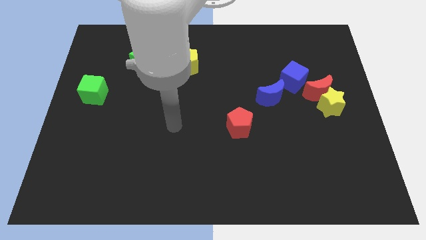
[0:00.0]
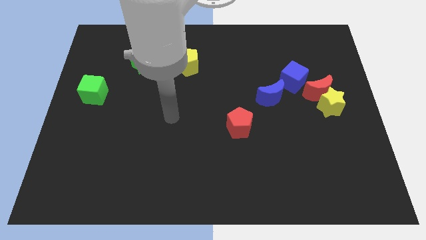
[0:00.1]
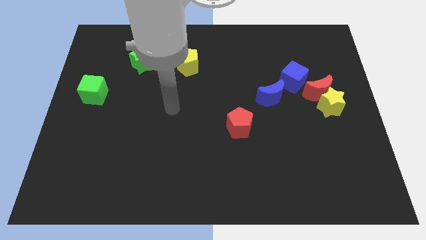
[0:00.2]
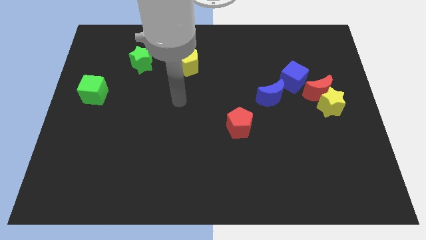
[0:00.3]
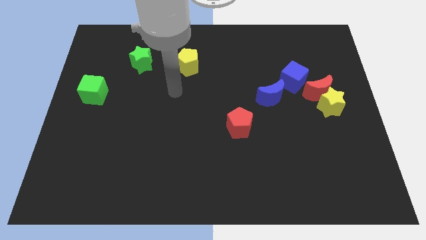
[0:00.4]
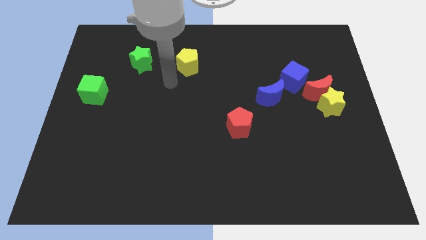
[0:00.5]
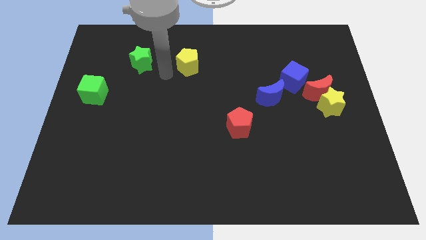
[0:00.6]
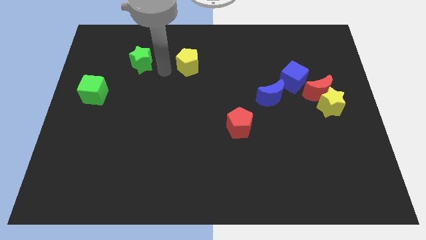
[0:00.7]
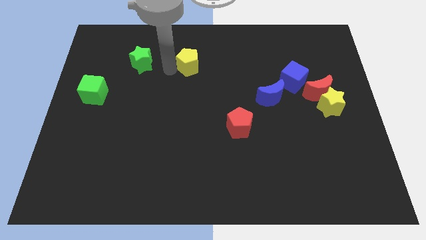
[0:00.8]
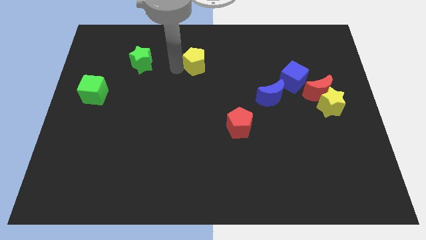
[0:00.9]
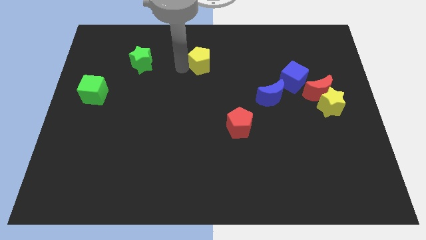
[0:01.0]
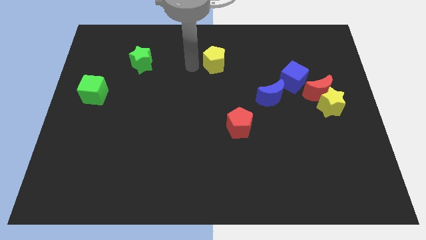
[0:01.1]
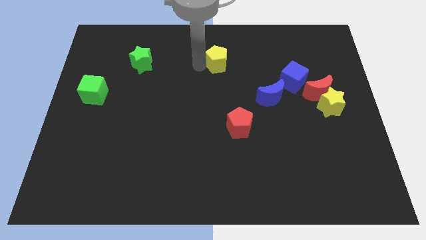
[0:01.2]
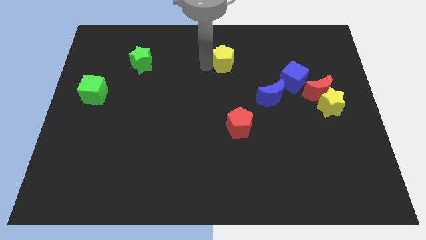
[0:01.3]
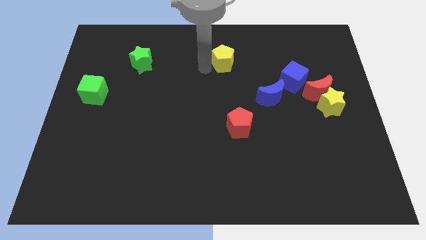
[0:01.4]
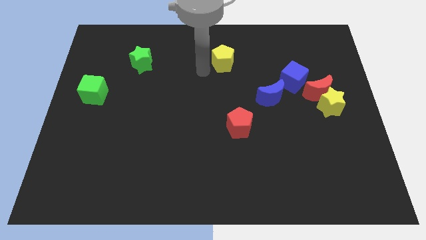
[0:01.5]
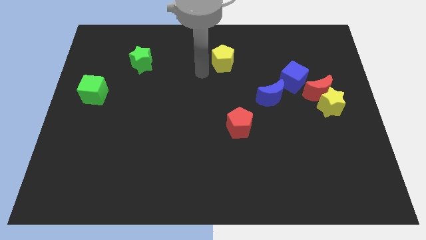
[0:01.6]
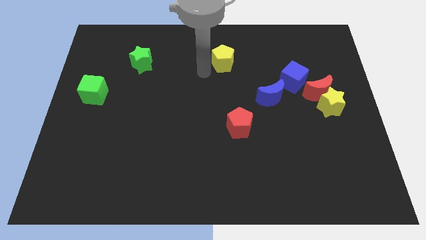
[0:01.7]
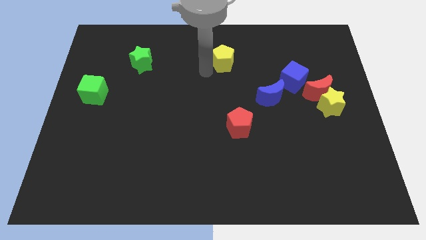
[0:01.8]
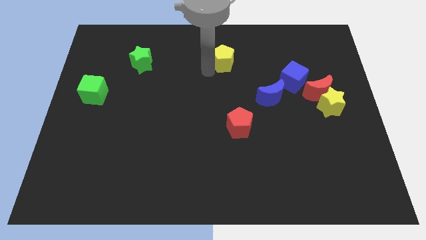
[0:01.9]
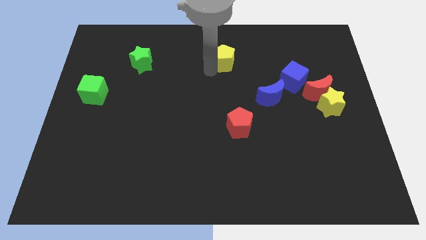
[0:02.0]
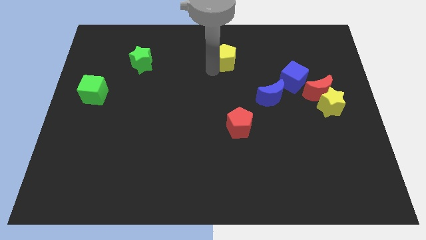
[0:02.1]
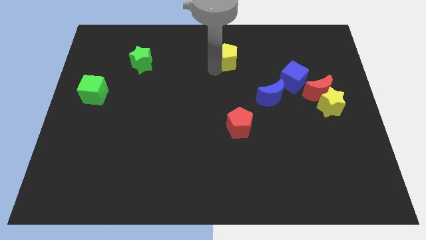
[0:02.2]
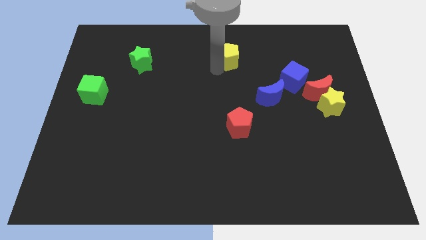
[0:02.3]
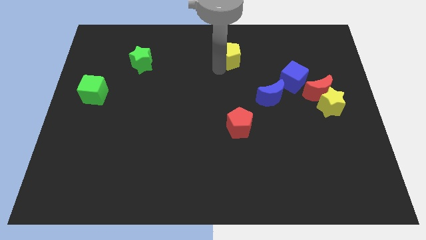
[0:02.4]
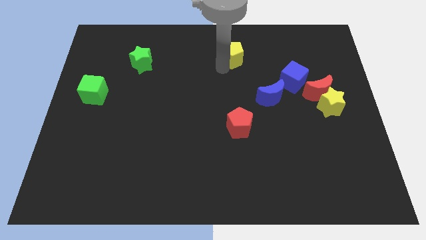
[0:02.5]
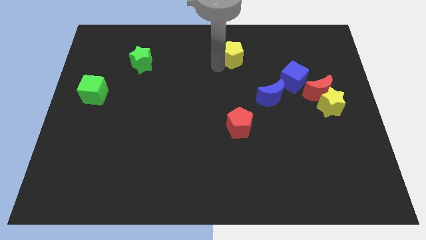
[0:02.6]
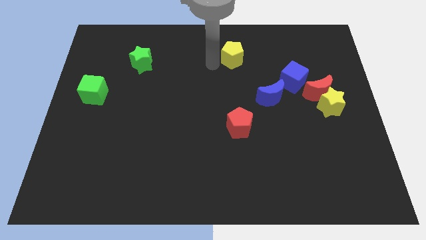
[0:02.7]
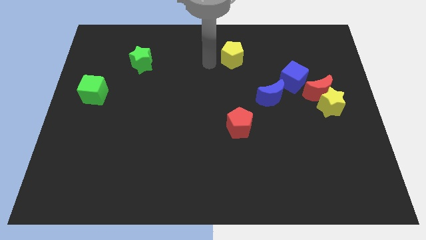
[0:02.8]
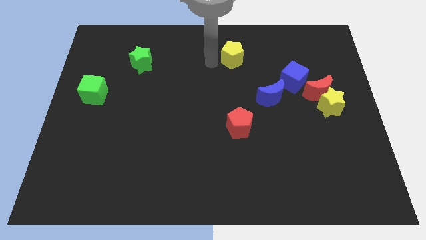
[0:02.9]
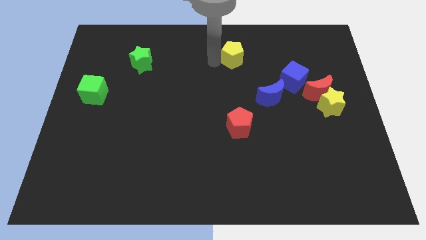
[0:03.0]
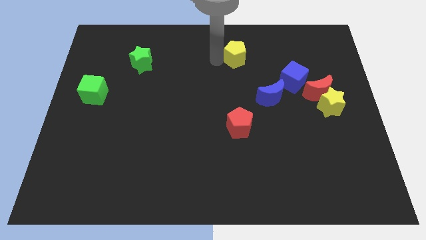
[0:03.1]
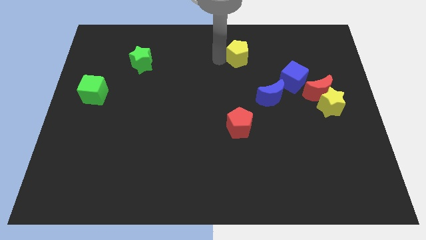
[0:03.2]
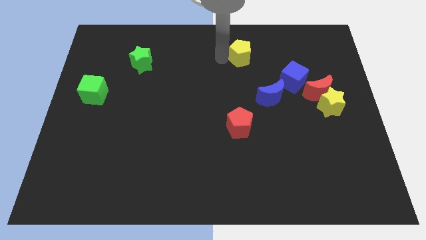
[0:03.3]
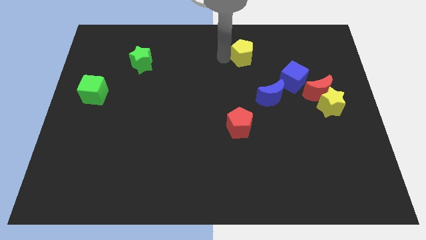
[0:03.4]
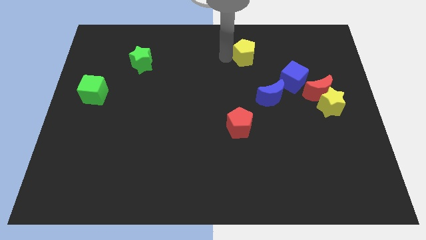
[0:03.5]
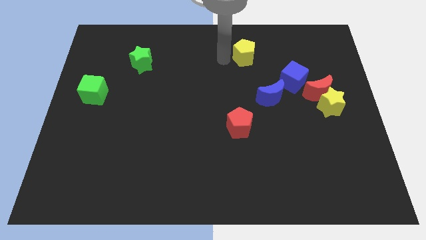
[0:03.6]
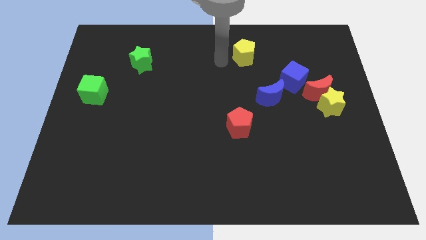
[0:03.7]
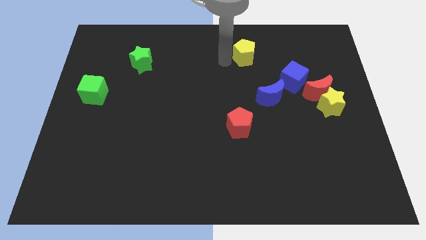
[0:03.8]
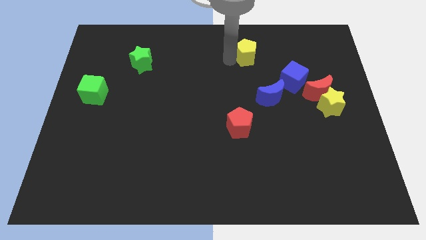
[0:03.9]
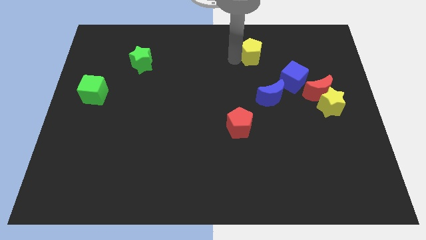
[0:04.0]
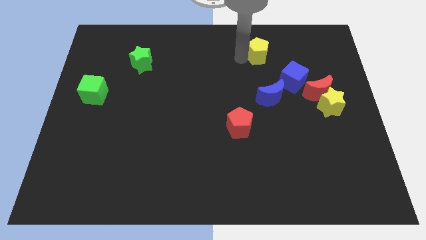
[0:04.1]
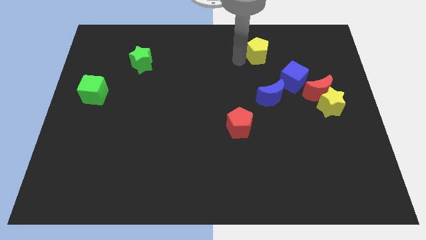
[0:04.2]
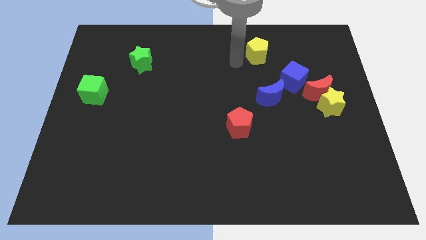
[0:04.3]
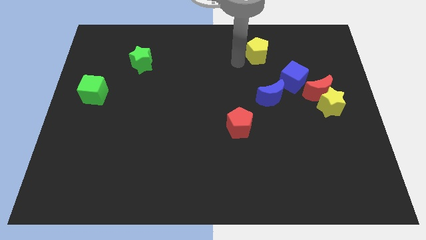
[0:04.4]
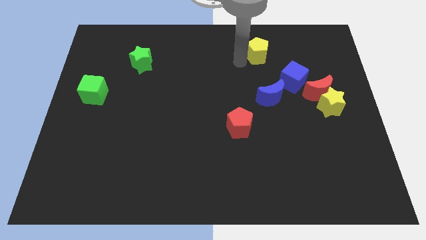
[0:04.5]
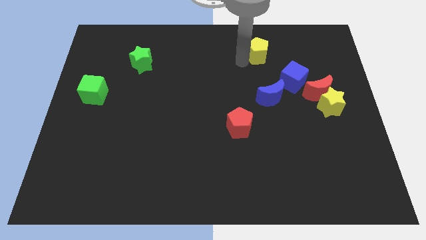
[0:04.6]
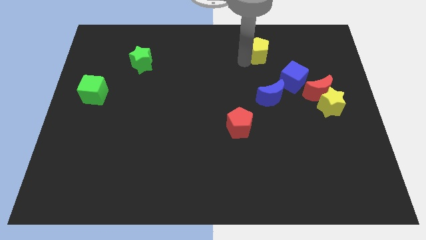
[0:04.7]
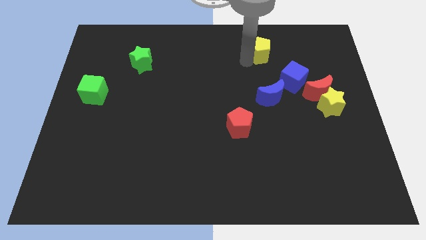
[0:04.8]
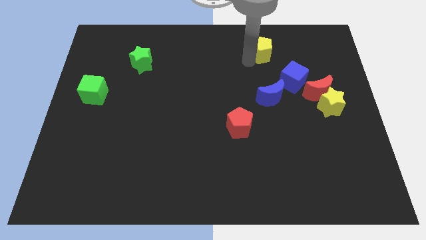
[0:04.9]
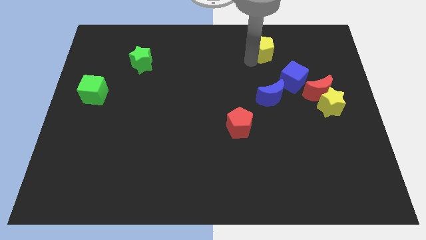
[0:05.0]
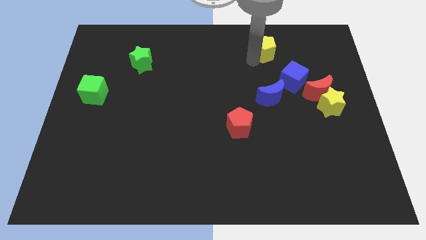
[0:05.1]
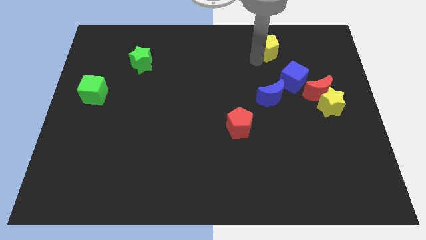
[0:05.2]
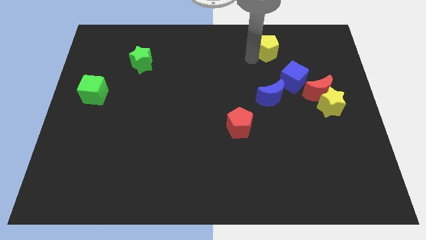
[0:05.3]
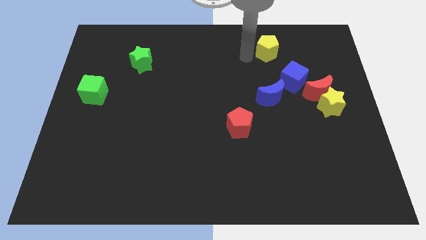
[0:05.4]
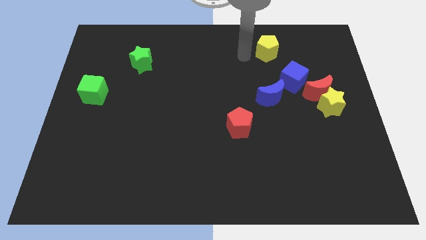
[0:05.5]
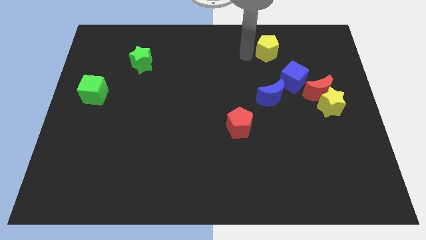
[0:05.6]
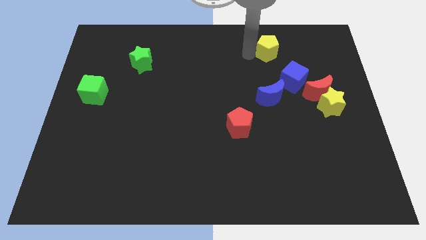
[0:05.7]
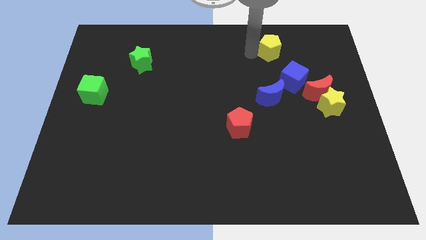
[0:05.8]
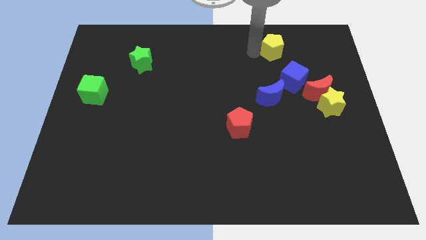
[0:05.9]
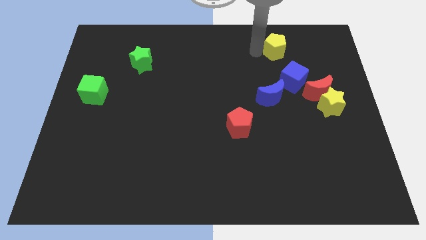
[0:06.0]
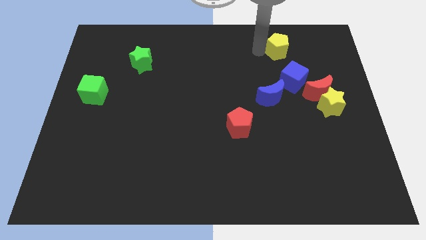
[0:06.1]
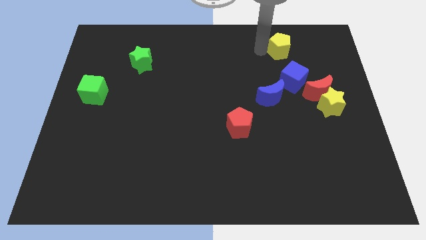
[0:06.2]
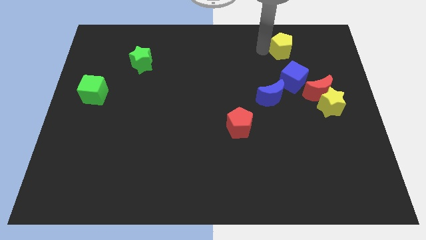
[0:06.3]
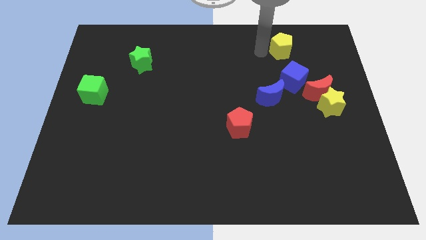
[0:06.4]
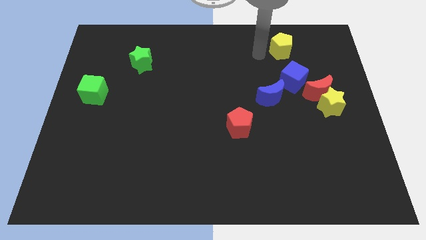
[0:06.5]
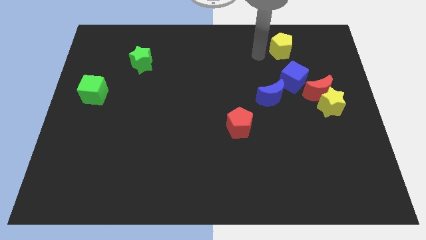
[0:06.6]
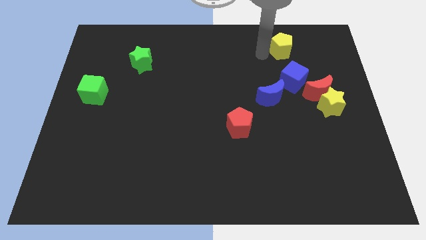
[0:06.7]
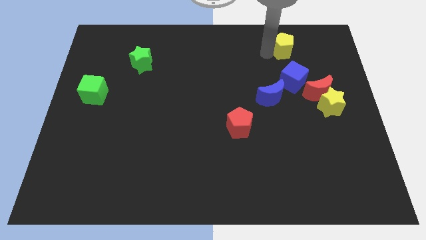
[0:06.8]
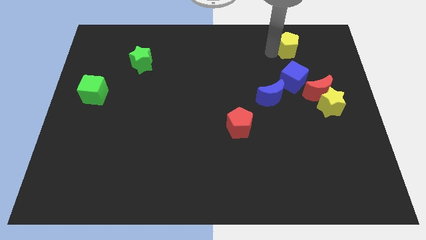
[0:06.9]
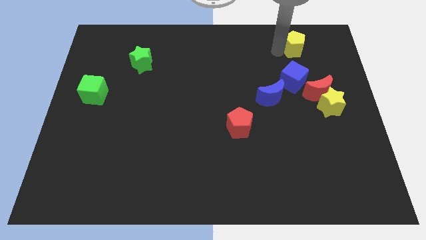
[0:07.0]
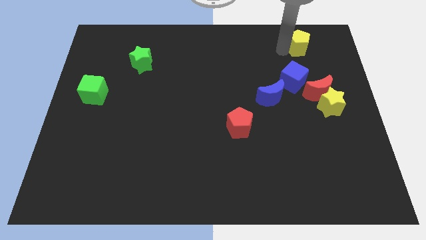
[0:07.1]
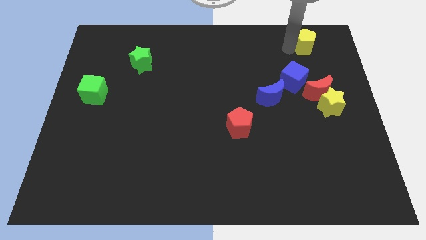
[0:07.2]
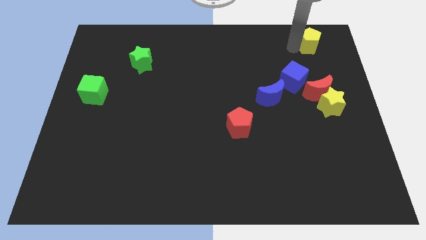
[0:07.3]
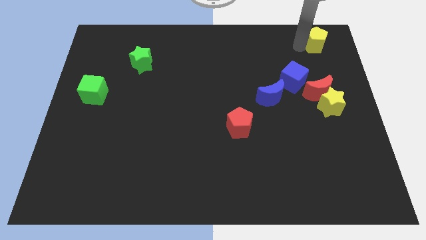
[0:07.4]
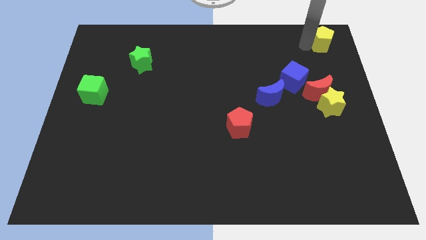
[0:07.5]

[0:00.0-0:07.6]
push the yellow pentagon to the top right corner

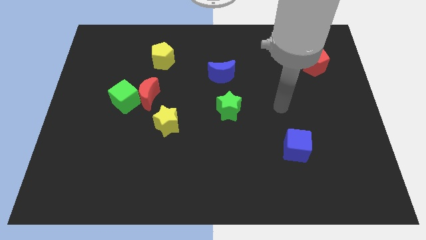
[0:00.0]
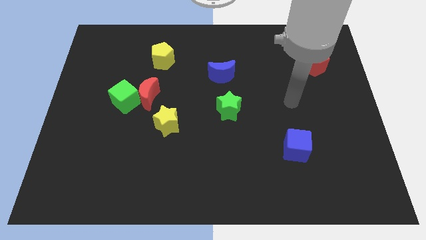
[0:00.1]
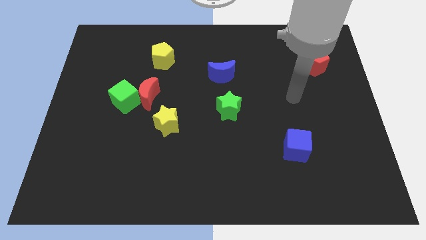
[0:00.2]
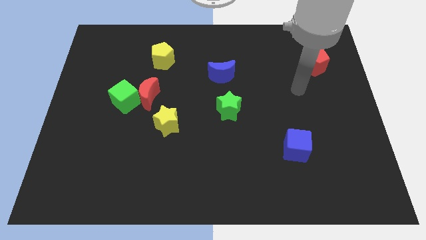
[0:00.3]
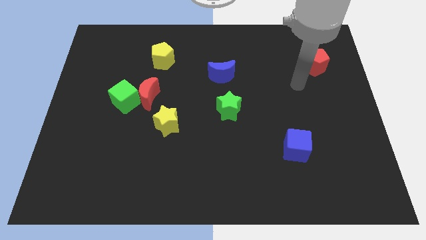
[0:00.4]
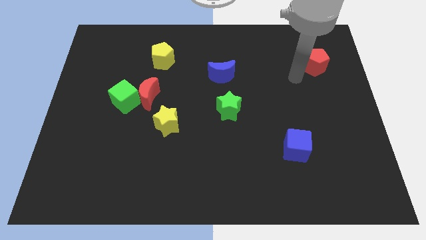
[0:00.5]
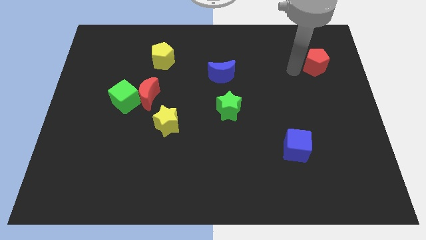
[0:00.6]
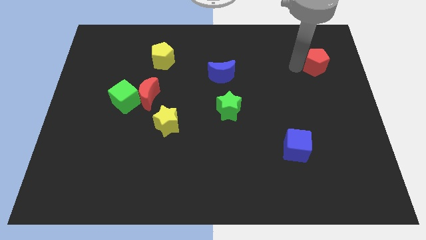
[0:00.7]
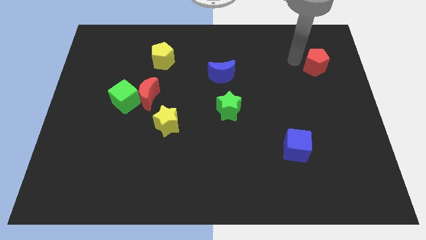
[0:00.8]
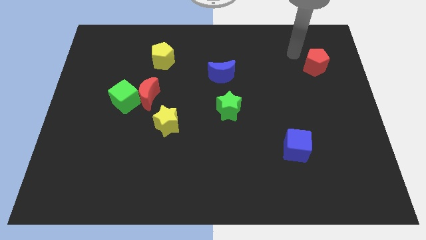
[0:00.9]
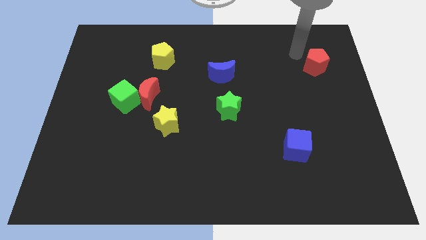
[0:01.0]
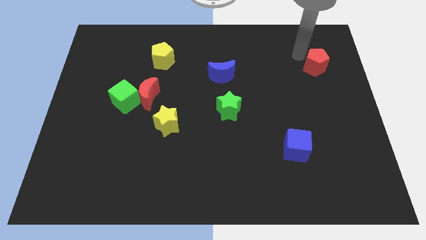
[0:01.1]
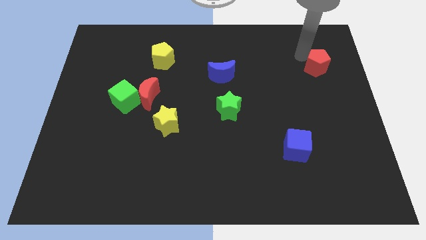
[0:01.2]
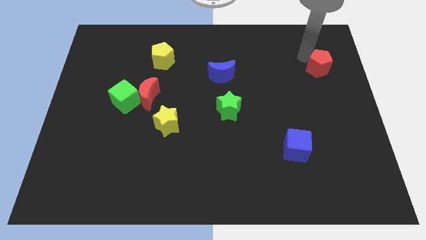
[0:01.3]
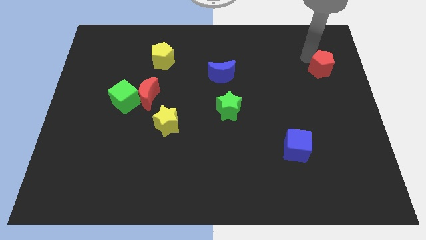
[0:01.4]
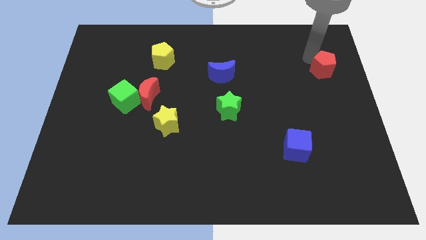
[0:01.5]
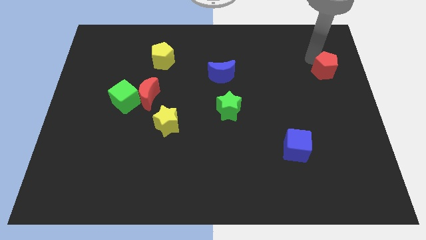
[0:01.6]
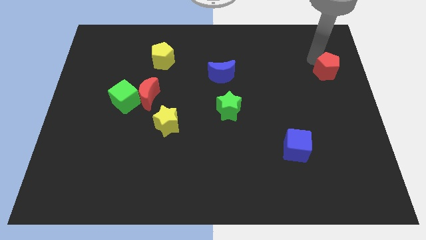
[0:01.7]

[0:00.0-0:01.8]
put the red pentagon to the right side
